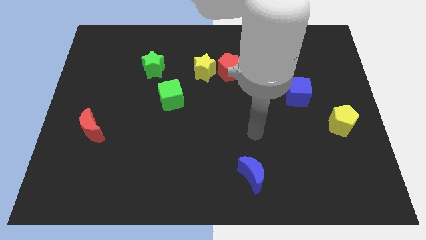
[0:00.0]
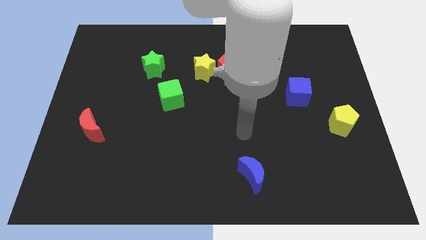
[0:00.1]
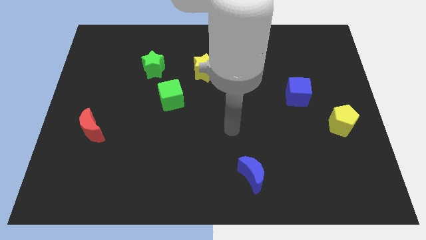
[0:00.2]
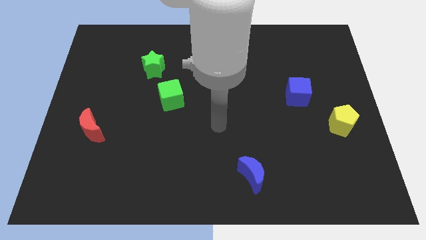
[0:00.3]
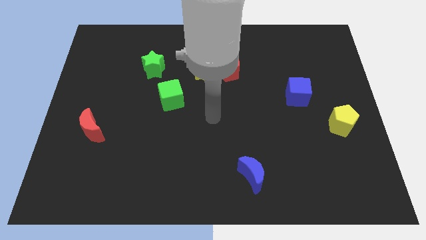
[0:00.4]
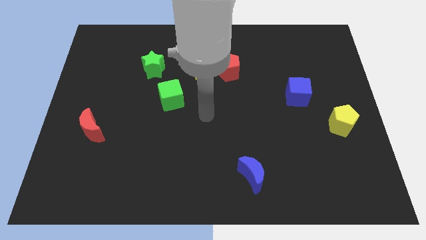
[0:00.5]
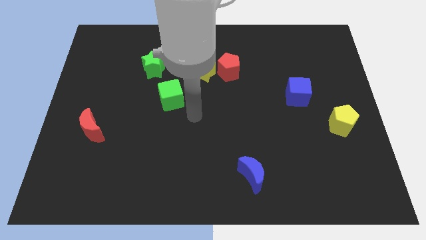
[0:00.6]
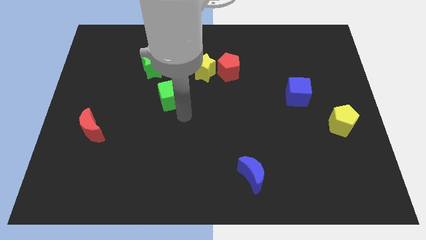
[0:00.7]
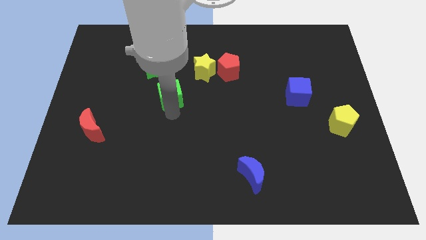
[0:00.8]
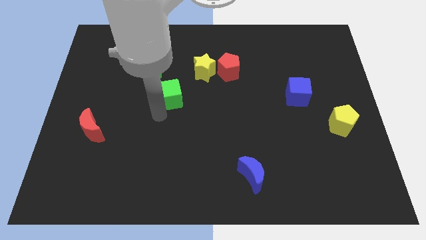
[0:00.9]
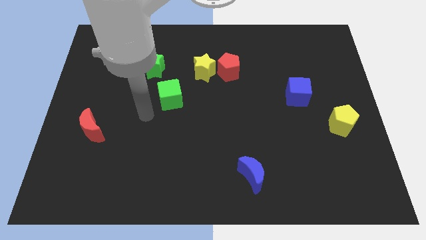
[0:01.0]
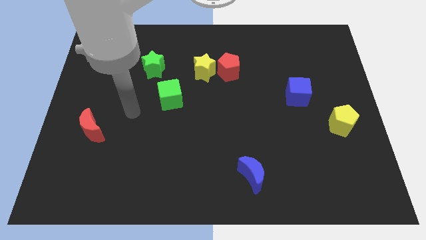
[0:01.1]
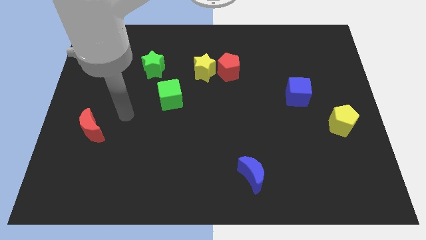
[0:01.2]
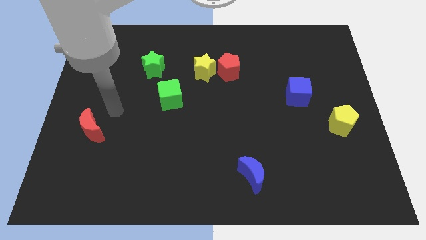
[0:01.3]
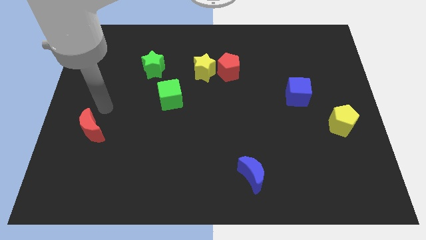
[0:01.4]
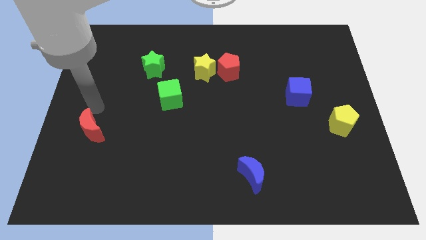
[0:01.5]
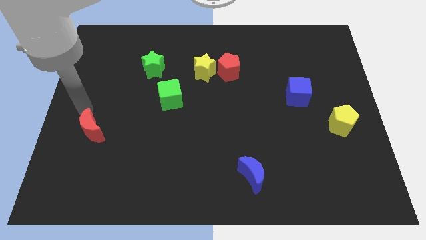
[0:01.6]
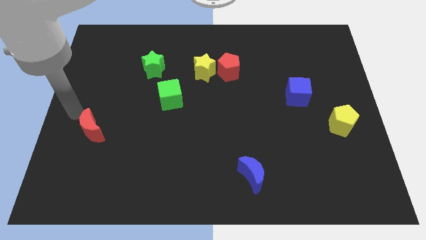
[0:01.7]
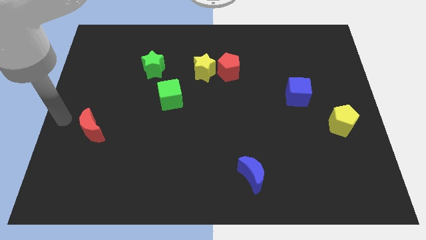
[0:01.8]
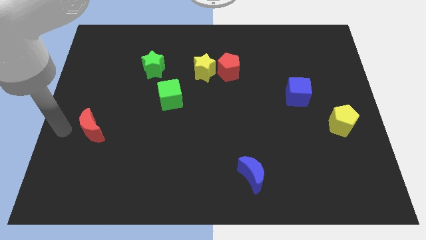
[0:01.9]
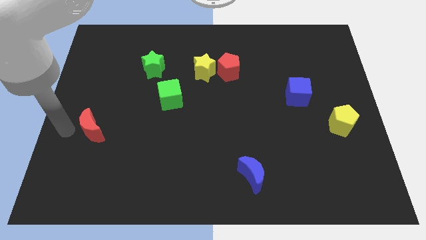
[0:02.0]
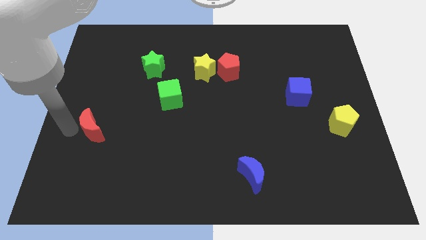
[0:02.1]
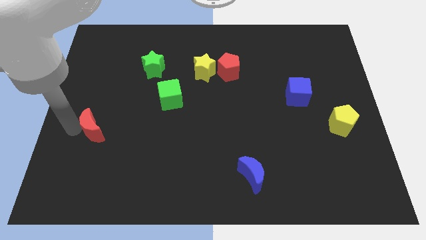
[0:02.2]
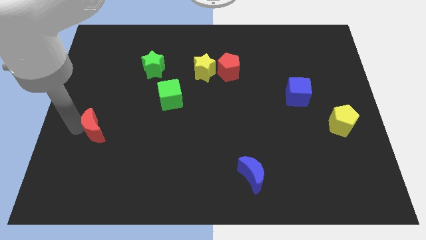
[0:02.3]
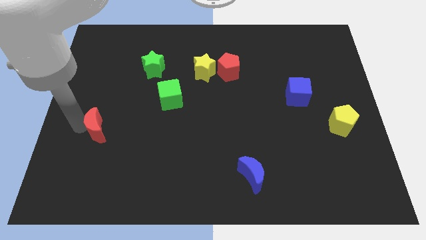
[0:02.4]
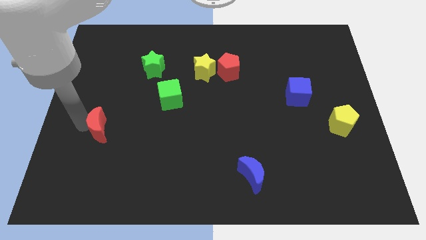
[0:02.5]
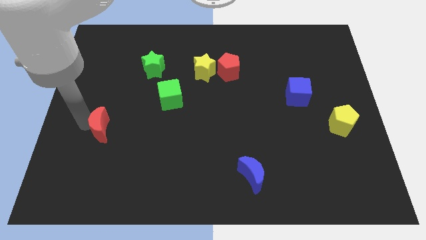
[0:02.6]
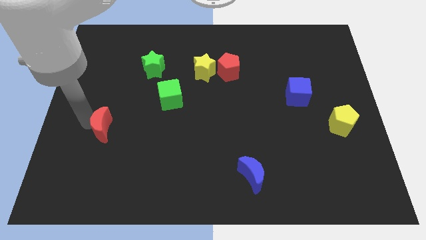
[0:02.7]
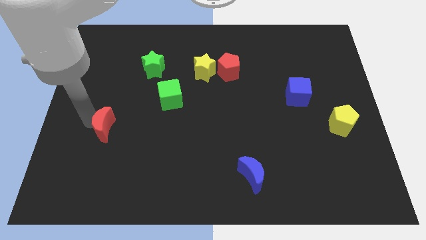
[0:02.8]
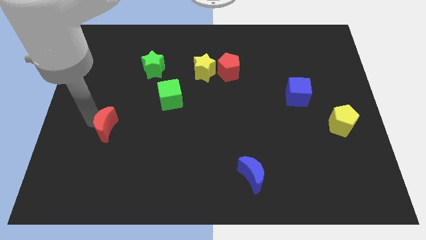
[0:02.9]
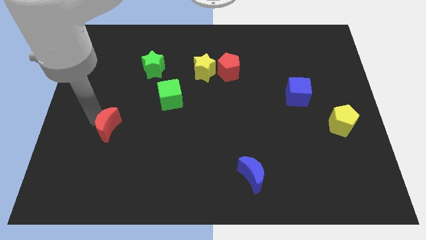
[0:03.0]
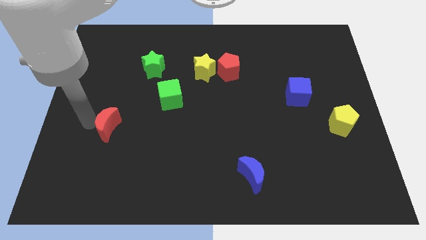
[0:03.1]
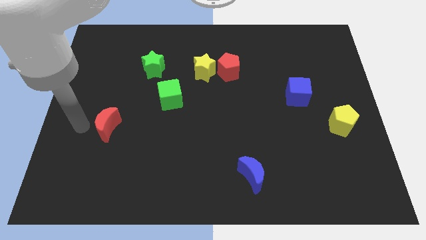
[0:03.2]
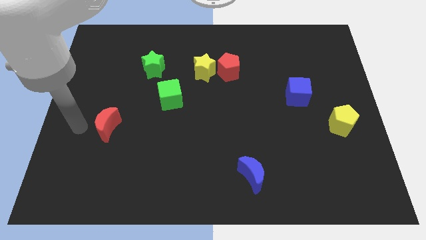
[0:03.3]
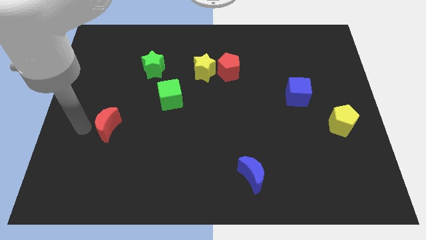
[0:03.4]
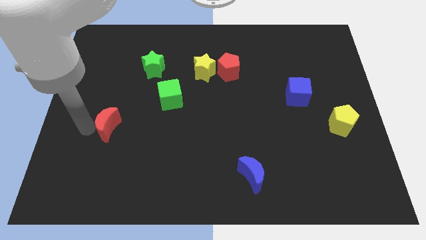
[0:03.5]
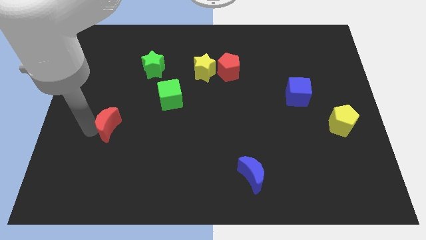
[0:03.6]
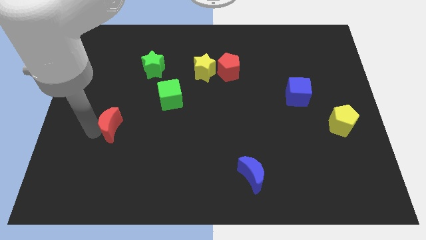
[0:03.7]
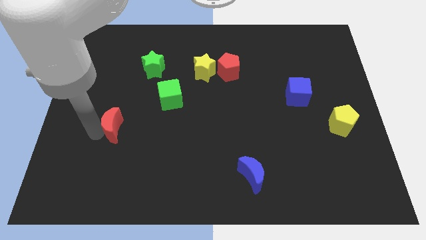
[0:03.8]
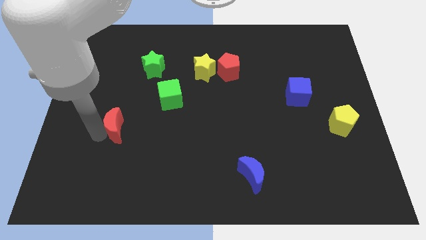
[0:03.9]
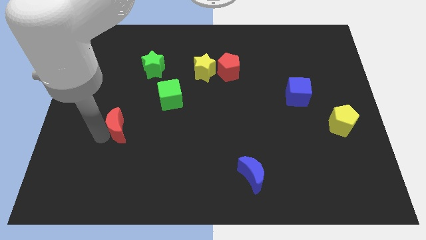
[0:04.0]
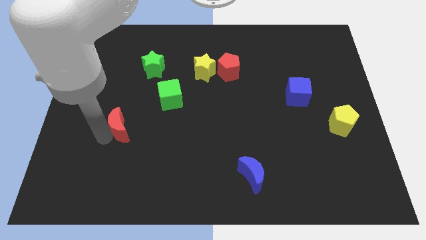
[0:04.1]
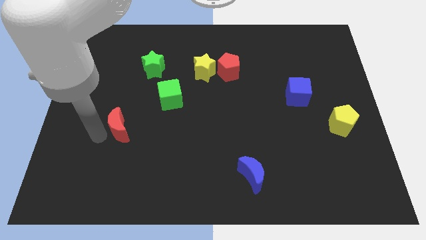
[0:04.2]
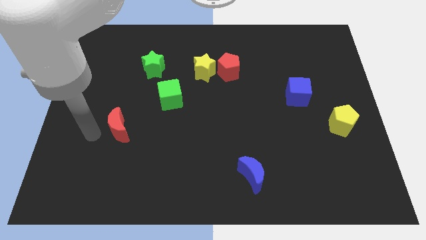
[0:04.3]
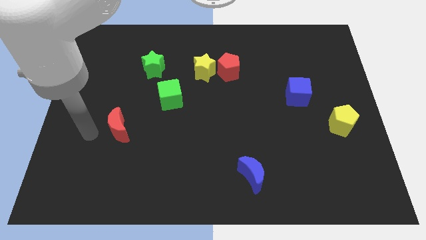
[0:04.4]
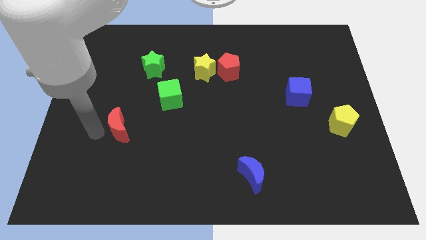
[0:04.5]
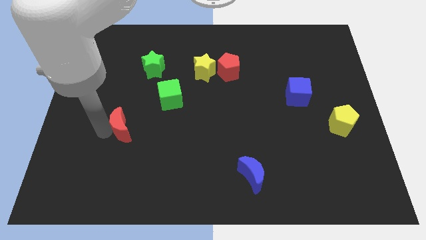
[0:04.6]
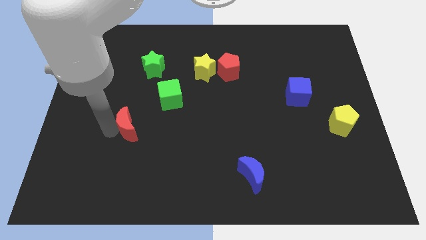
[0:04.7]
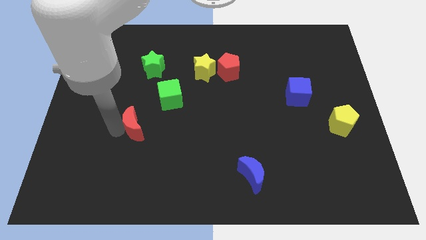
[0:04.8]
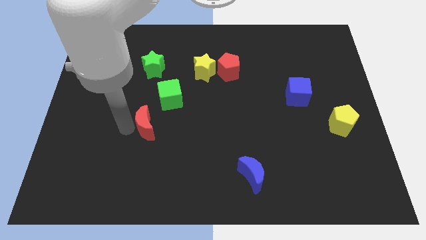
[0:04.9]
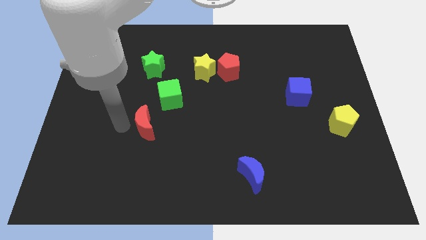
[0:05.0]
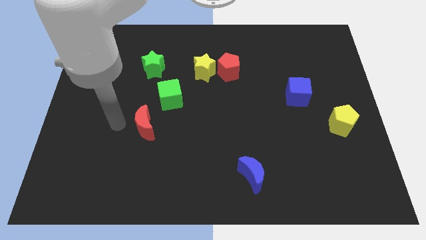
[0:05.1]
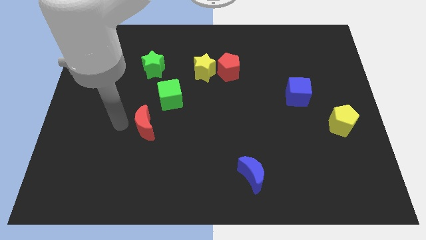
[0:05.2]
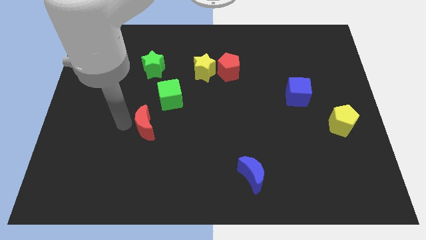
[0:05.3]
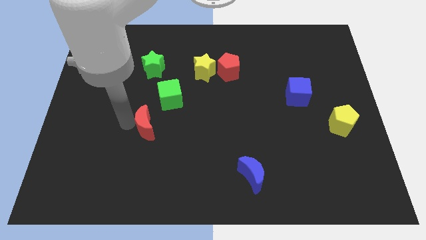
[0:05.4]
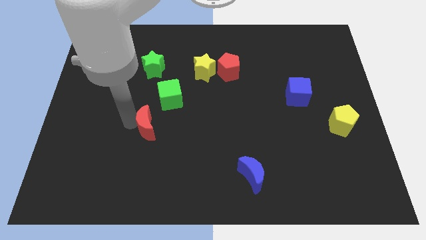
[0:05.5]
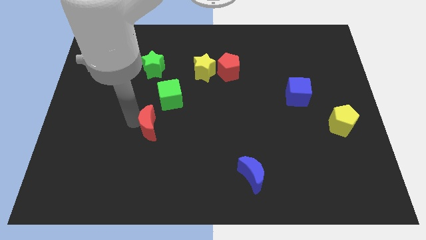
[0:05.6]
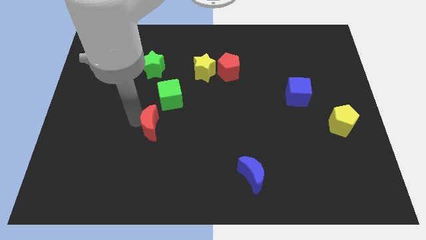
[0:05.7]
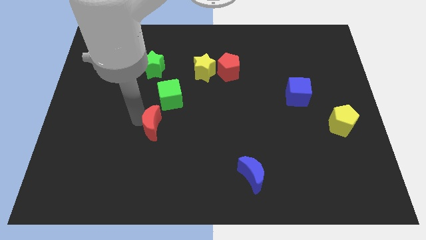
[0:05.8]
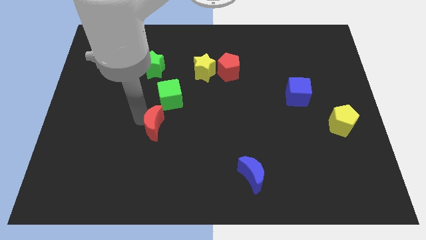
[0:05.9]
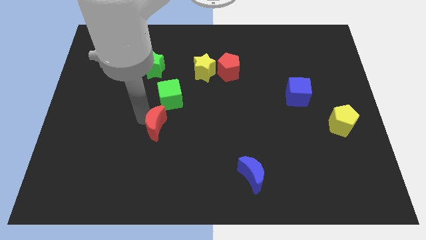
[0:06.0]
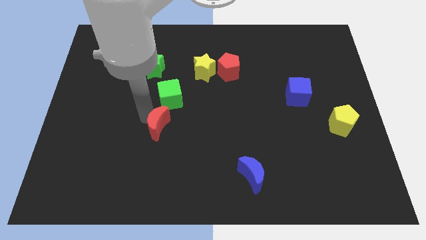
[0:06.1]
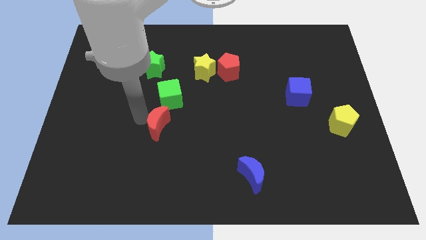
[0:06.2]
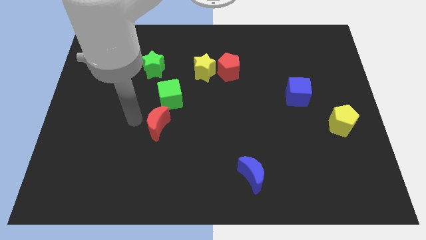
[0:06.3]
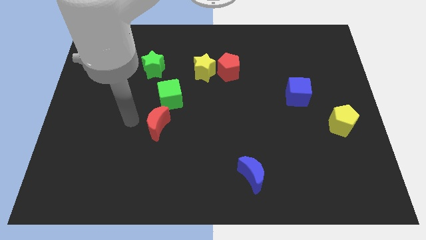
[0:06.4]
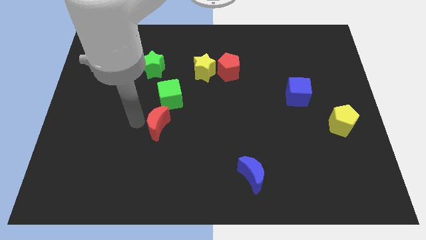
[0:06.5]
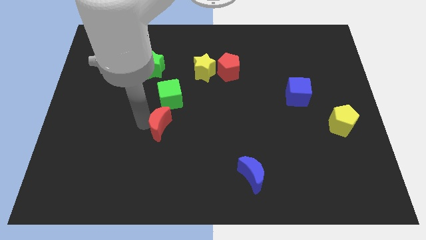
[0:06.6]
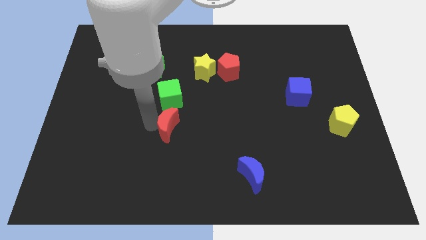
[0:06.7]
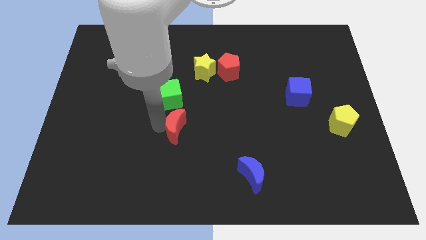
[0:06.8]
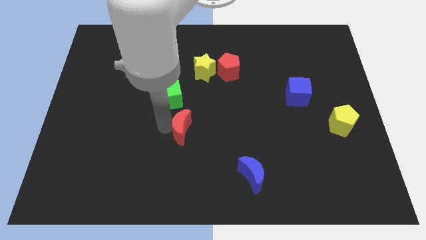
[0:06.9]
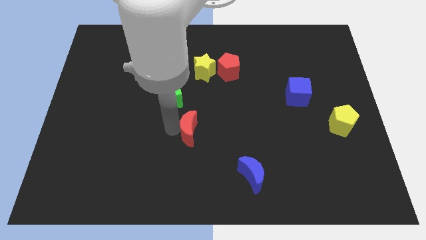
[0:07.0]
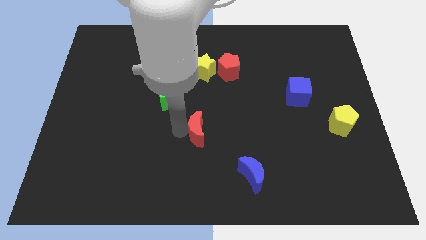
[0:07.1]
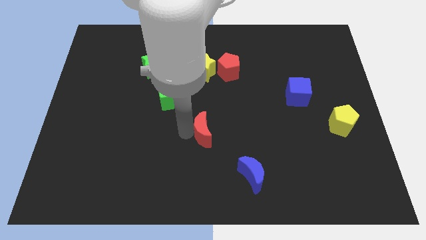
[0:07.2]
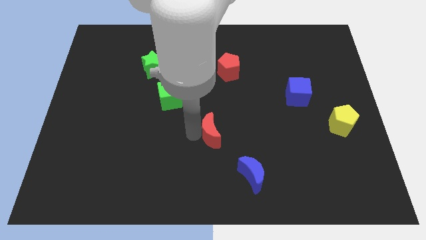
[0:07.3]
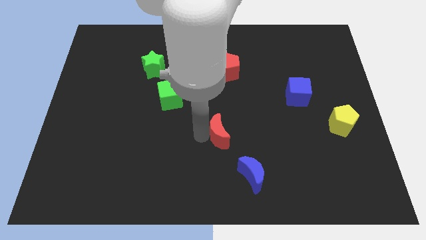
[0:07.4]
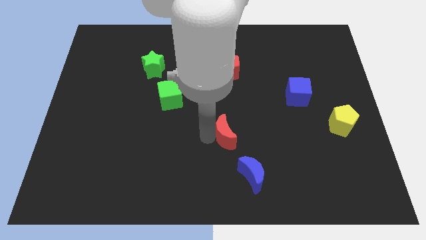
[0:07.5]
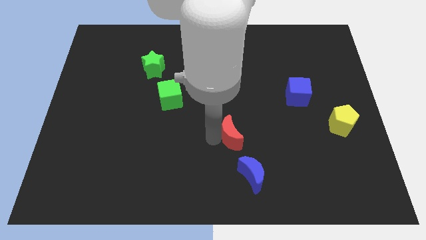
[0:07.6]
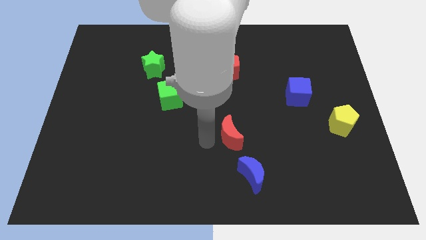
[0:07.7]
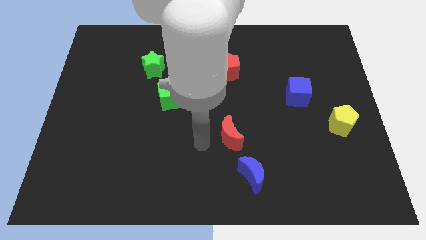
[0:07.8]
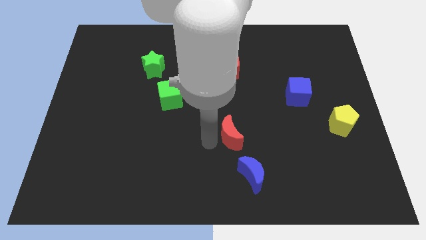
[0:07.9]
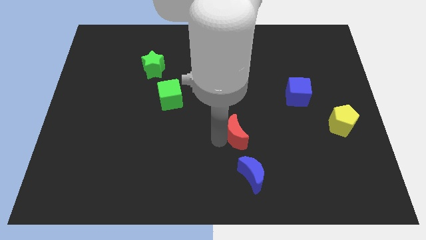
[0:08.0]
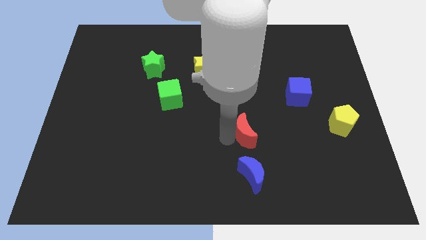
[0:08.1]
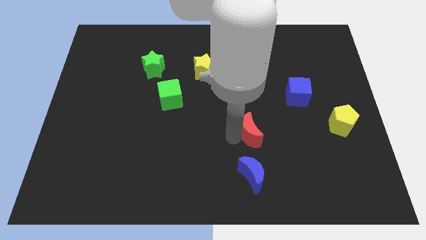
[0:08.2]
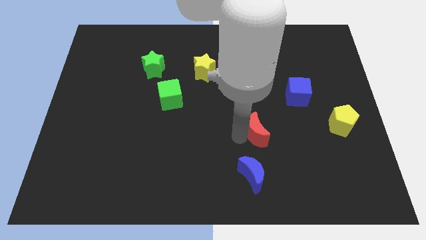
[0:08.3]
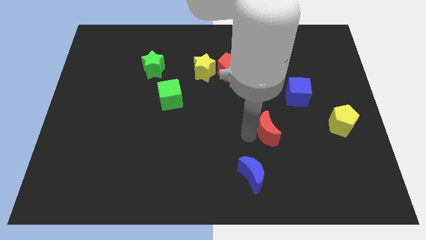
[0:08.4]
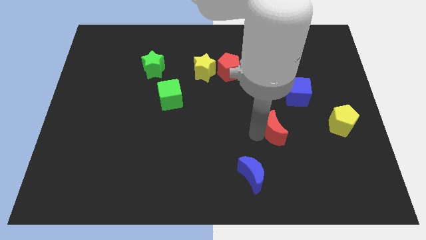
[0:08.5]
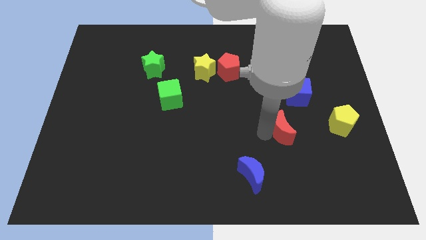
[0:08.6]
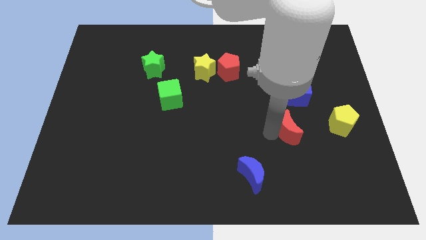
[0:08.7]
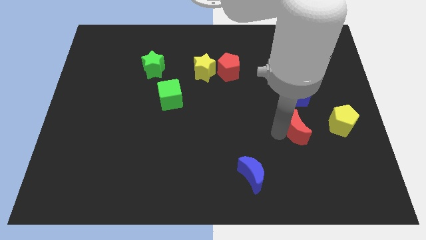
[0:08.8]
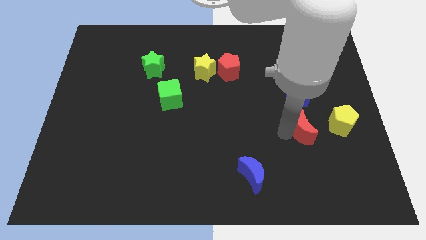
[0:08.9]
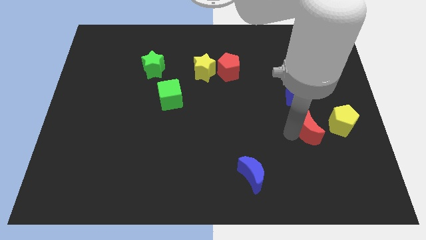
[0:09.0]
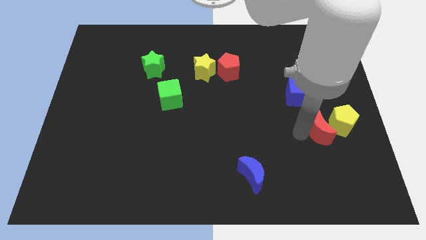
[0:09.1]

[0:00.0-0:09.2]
push the red moon next to the yellow pentagon
